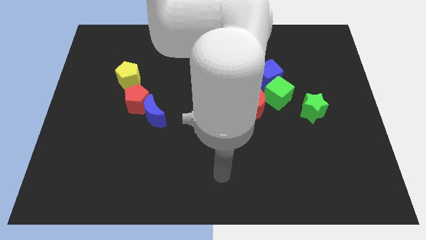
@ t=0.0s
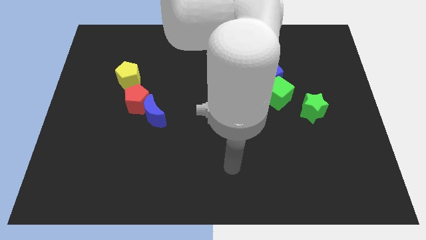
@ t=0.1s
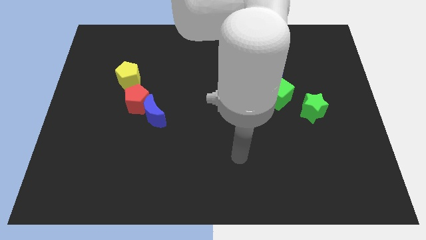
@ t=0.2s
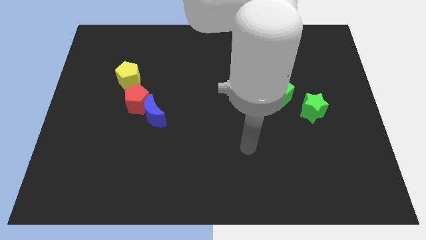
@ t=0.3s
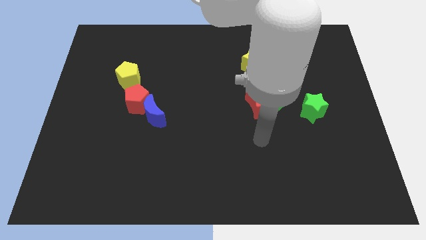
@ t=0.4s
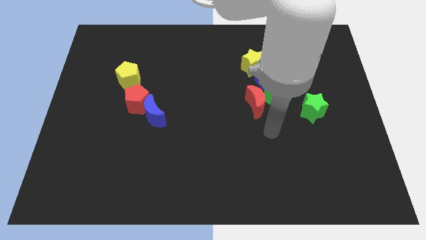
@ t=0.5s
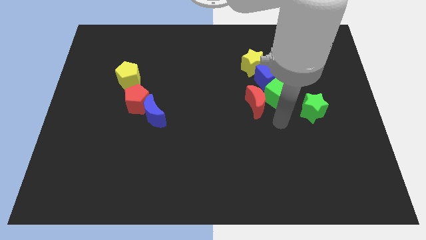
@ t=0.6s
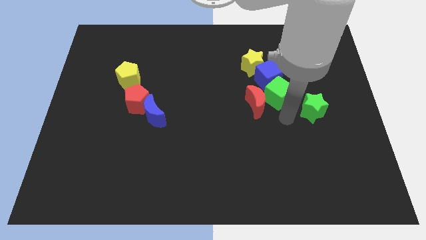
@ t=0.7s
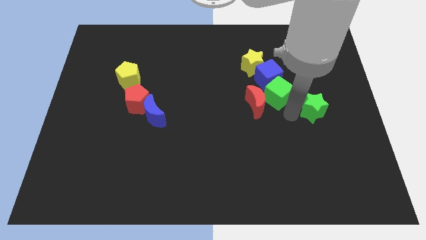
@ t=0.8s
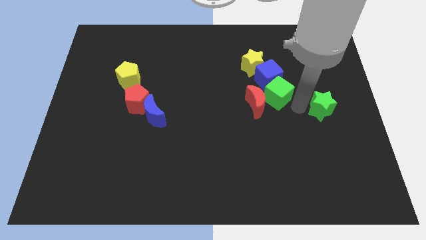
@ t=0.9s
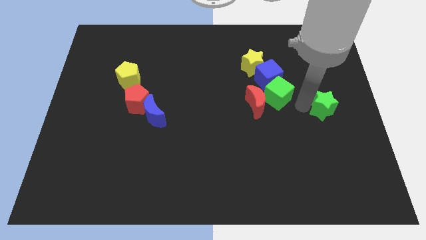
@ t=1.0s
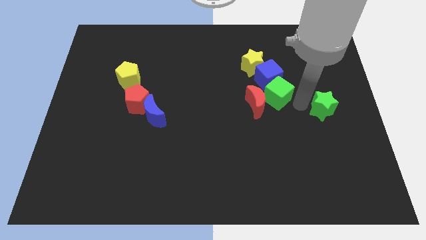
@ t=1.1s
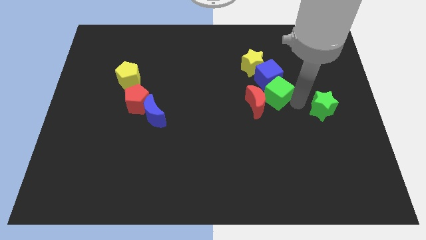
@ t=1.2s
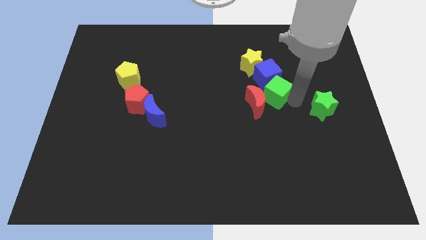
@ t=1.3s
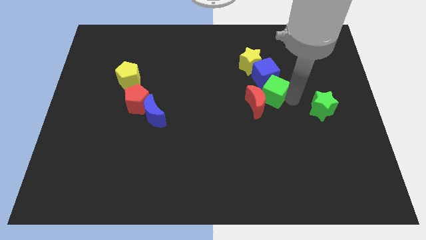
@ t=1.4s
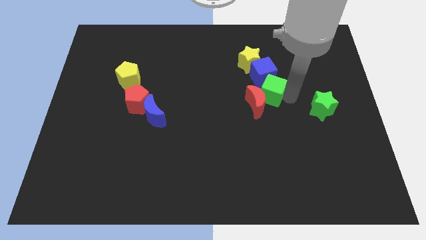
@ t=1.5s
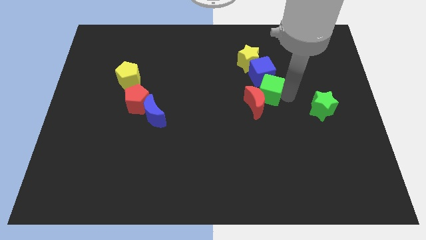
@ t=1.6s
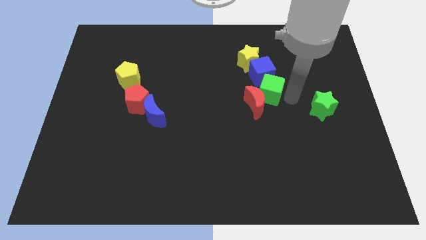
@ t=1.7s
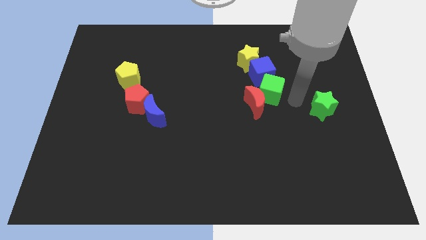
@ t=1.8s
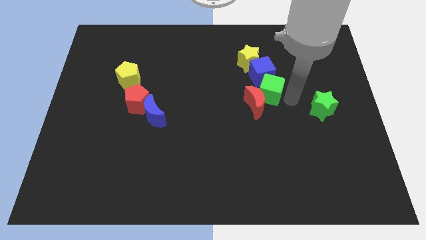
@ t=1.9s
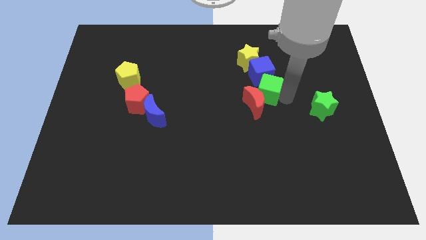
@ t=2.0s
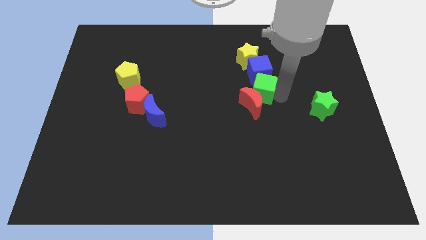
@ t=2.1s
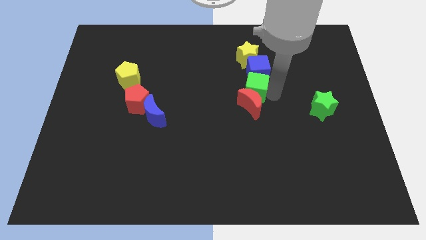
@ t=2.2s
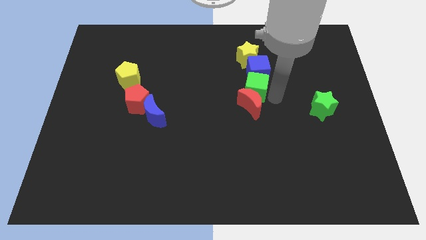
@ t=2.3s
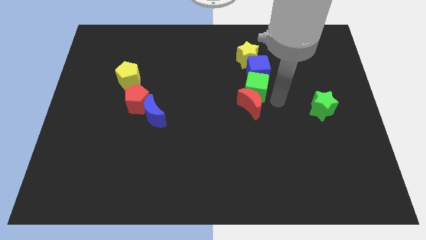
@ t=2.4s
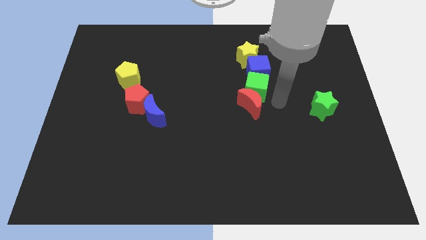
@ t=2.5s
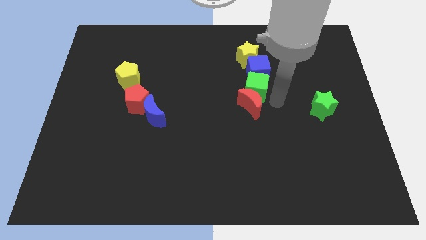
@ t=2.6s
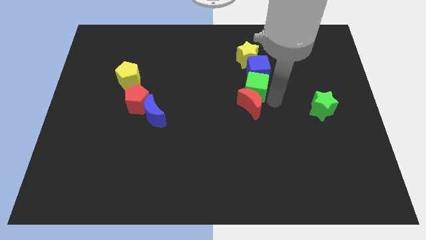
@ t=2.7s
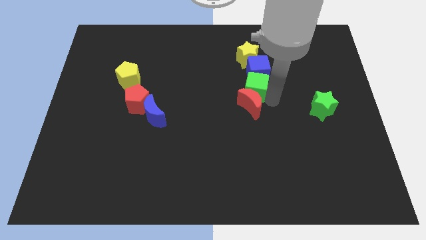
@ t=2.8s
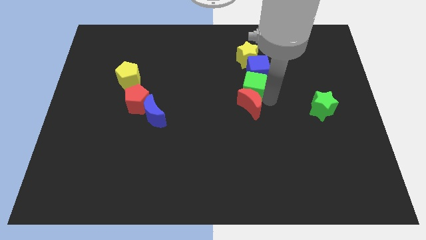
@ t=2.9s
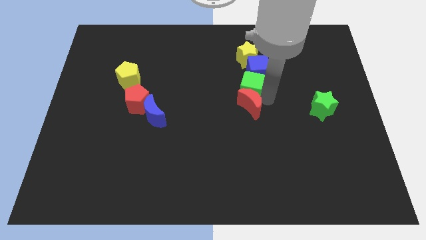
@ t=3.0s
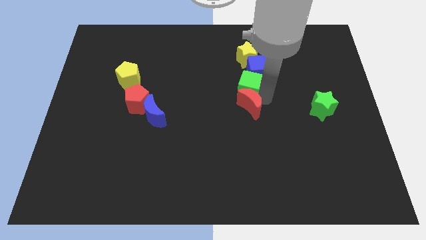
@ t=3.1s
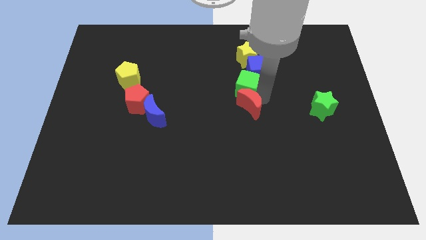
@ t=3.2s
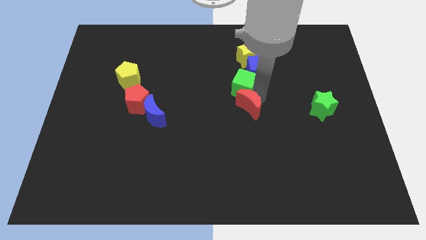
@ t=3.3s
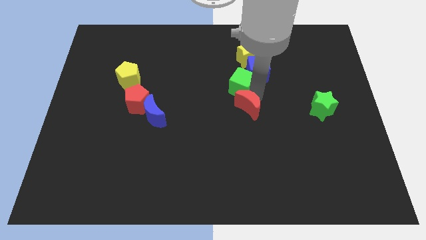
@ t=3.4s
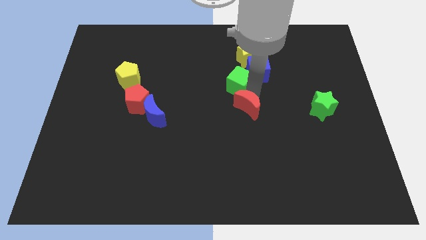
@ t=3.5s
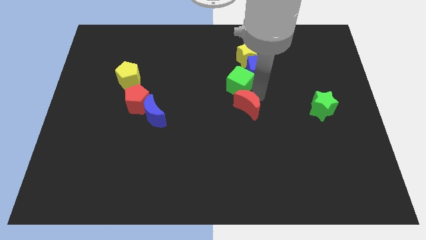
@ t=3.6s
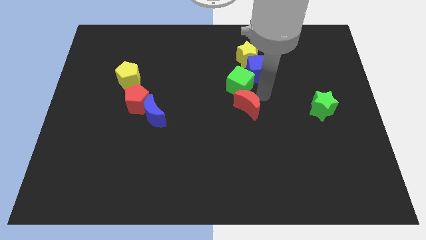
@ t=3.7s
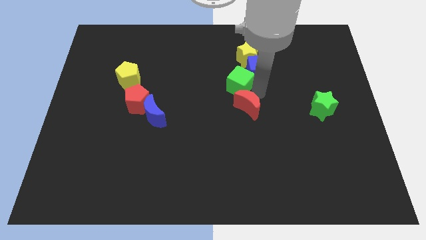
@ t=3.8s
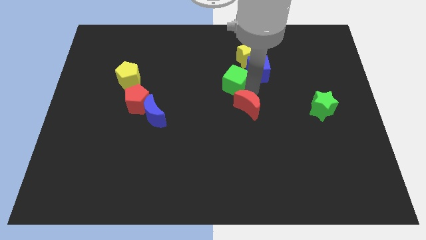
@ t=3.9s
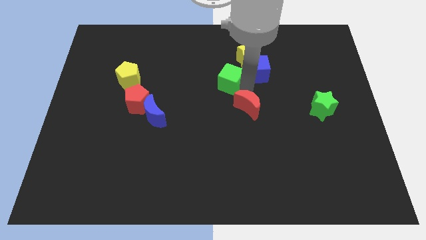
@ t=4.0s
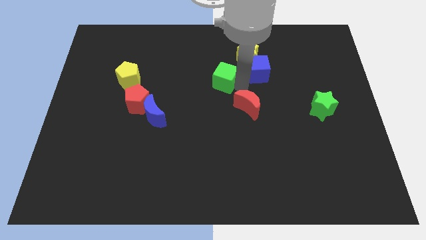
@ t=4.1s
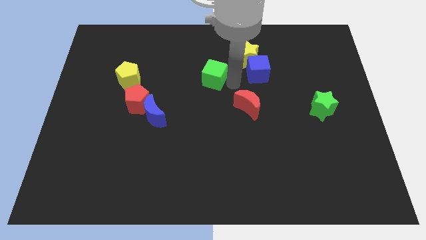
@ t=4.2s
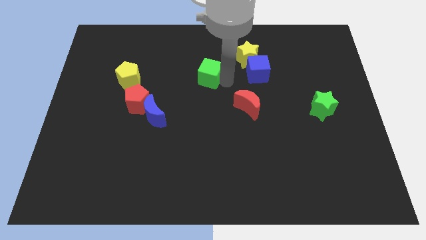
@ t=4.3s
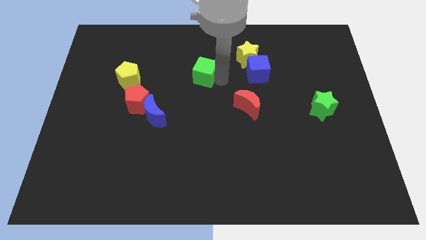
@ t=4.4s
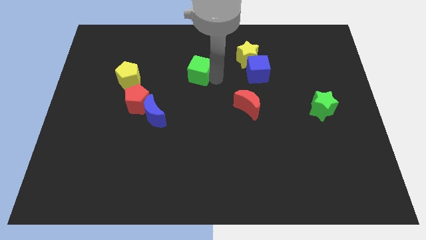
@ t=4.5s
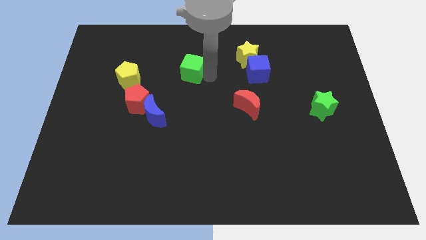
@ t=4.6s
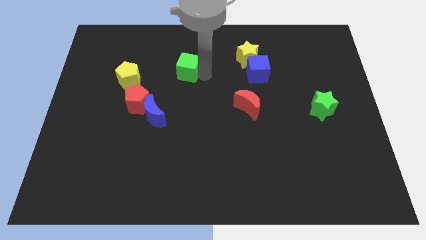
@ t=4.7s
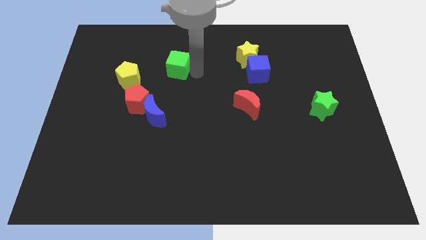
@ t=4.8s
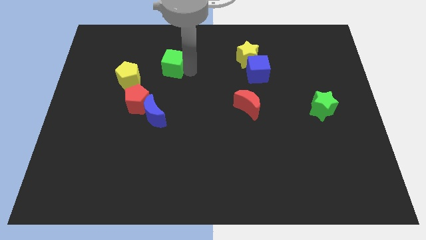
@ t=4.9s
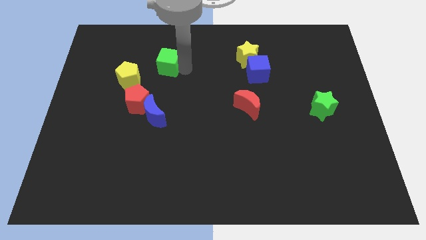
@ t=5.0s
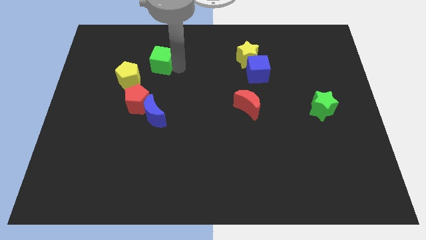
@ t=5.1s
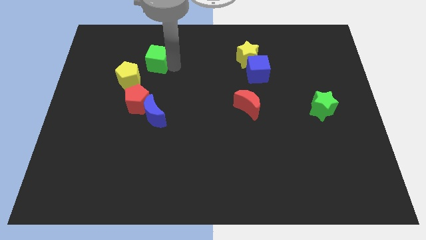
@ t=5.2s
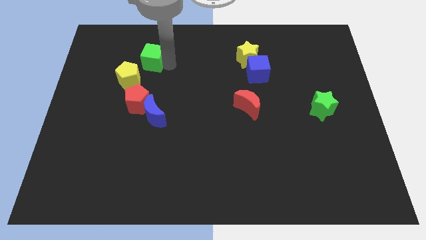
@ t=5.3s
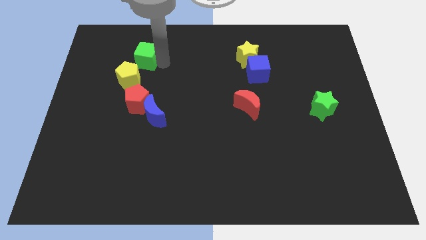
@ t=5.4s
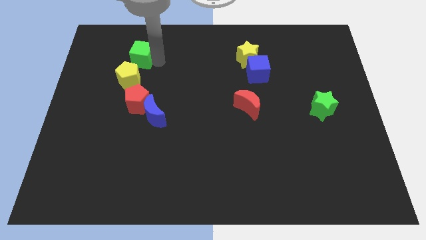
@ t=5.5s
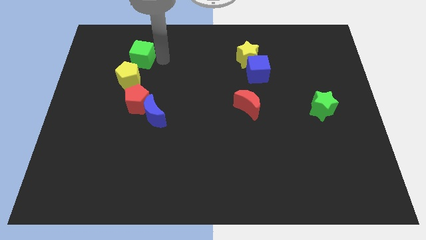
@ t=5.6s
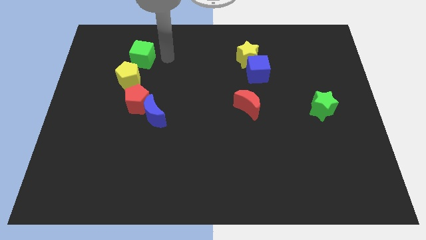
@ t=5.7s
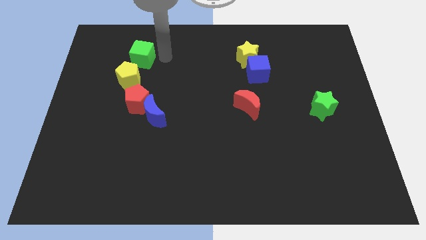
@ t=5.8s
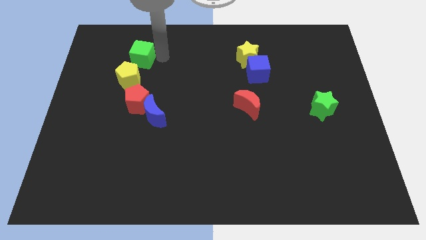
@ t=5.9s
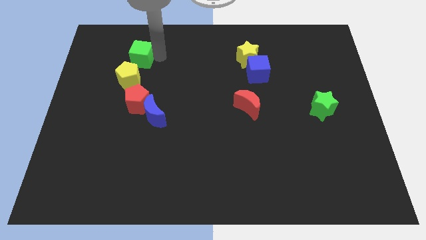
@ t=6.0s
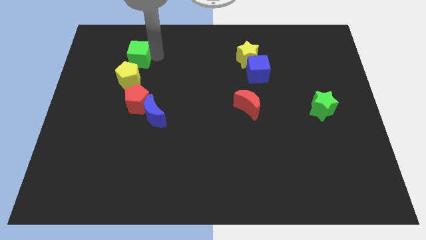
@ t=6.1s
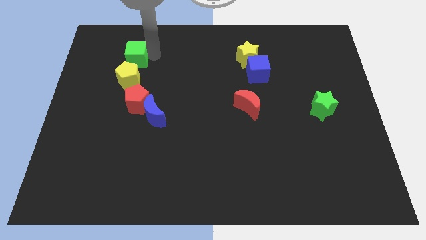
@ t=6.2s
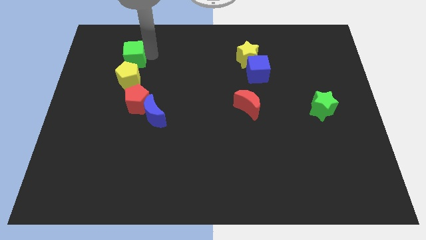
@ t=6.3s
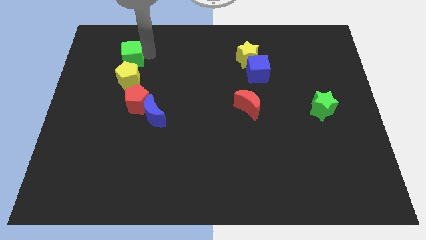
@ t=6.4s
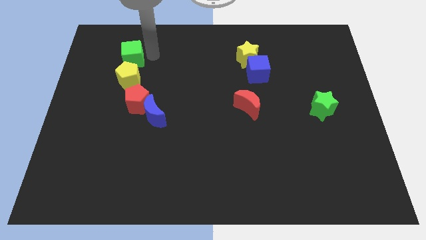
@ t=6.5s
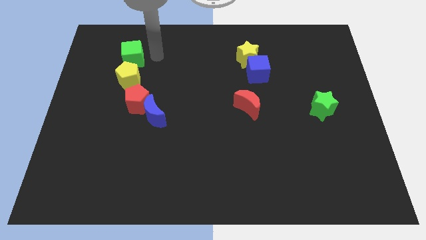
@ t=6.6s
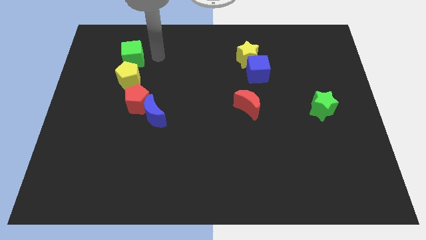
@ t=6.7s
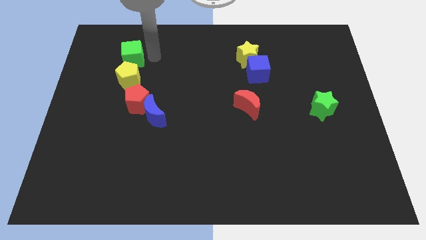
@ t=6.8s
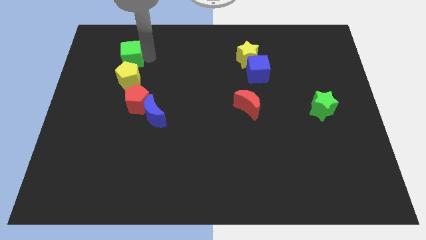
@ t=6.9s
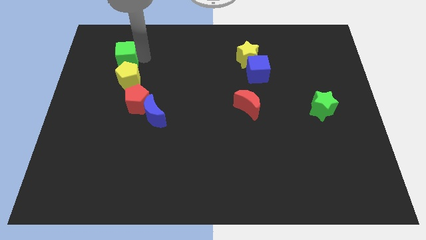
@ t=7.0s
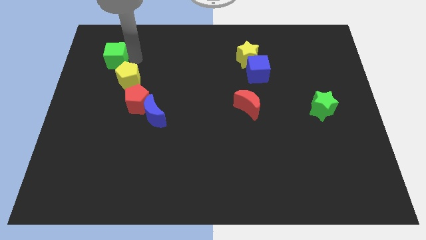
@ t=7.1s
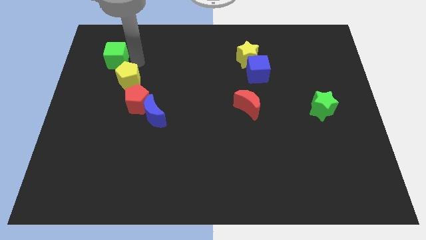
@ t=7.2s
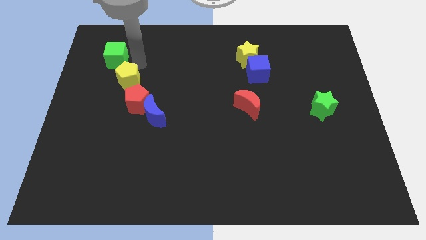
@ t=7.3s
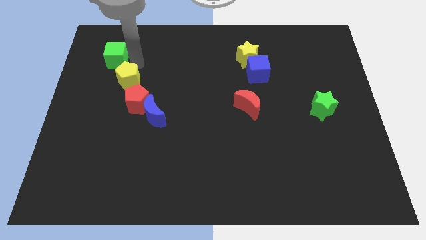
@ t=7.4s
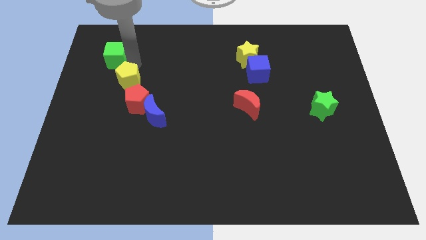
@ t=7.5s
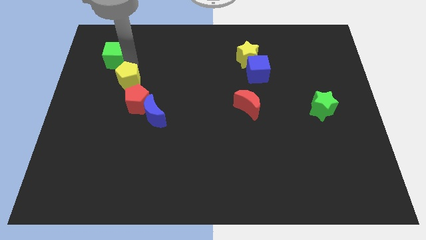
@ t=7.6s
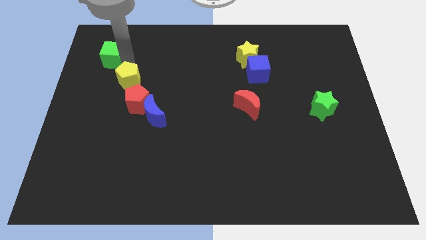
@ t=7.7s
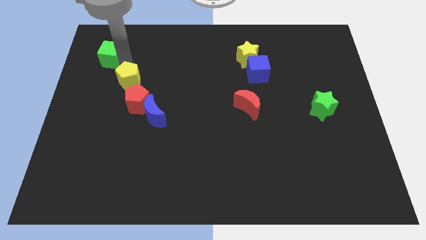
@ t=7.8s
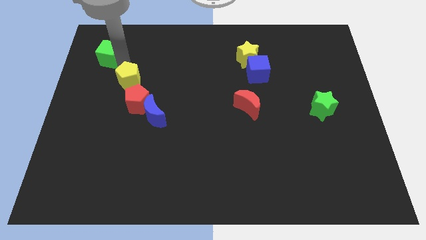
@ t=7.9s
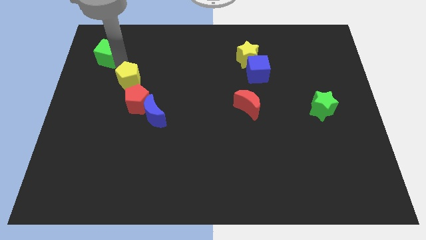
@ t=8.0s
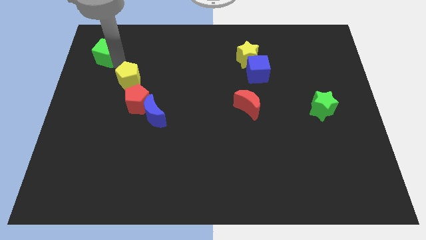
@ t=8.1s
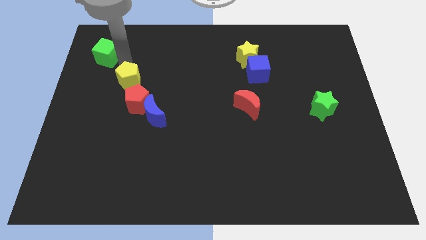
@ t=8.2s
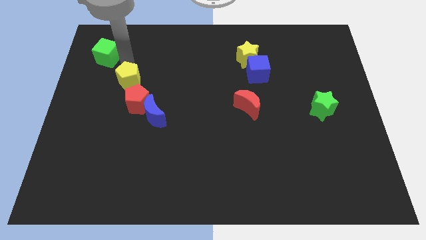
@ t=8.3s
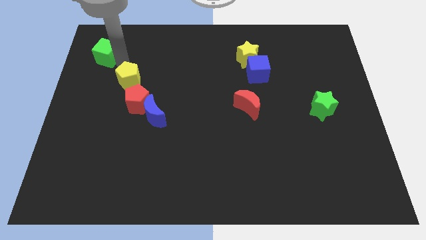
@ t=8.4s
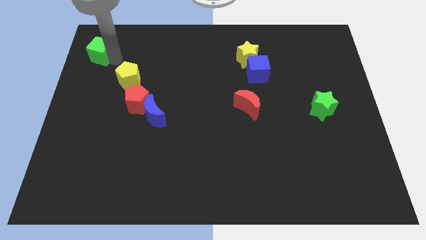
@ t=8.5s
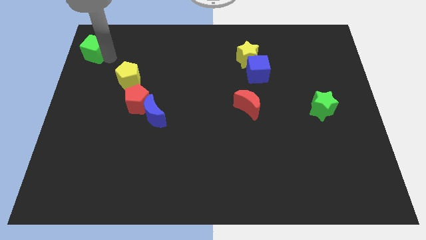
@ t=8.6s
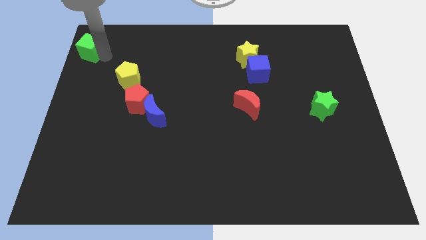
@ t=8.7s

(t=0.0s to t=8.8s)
push the green cube to the top left of the board
